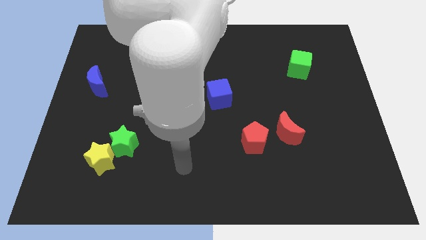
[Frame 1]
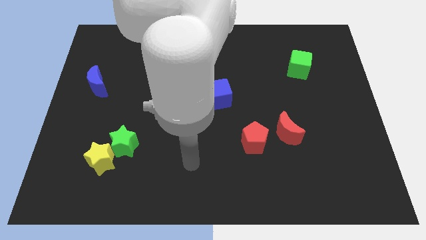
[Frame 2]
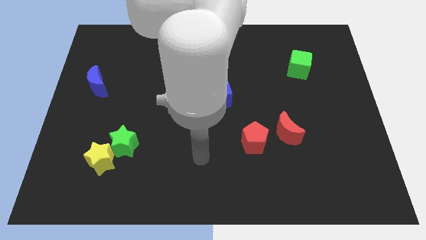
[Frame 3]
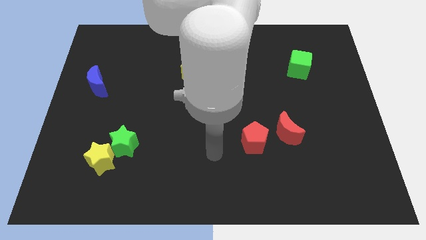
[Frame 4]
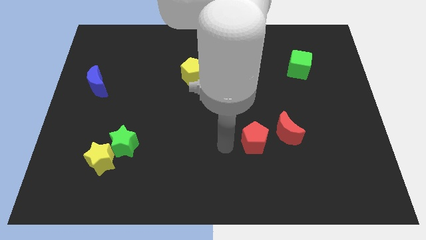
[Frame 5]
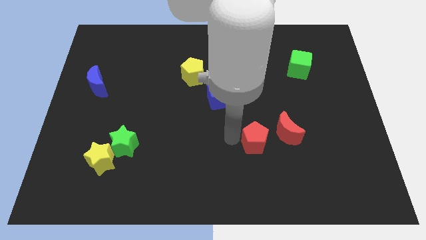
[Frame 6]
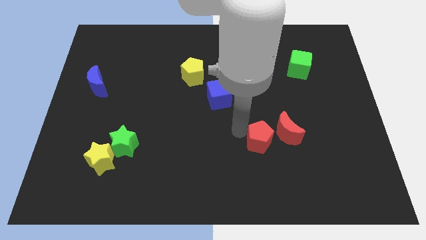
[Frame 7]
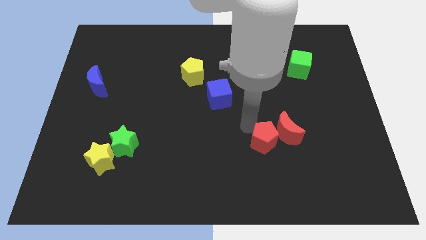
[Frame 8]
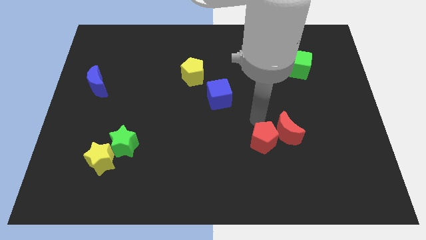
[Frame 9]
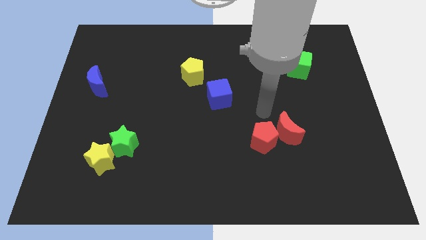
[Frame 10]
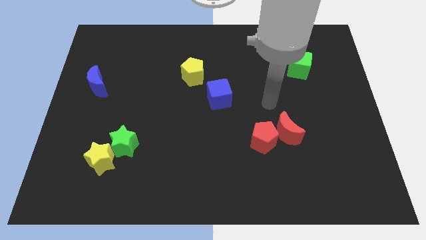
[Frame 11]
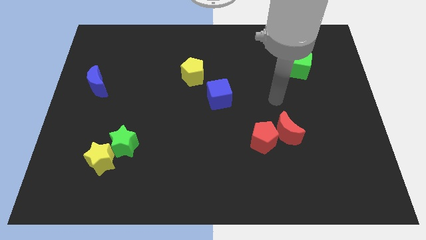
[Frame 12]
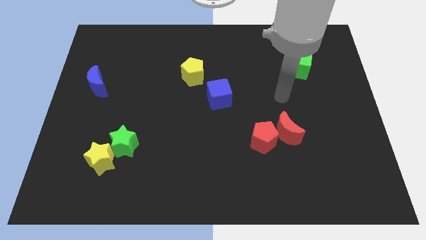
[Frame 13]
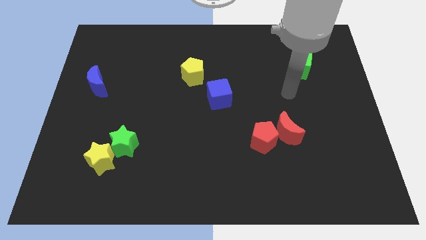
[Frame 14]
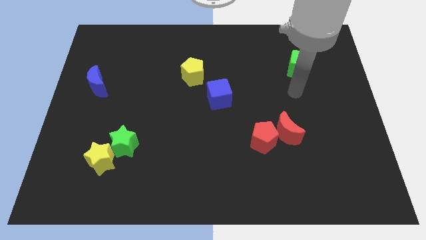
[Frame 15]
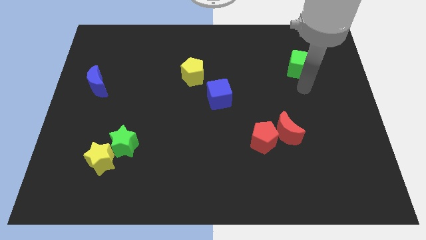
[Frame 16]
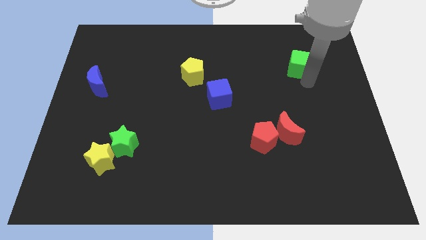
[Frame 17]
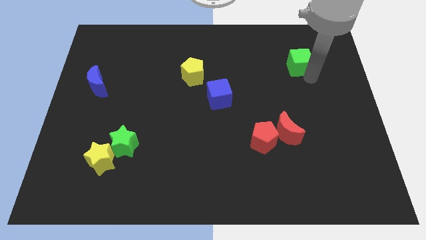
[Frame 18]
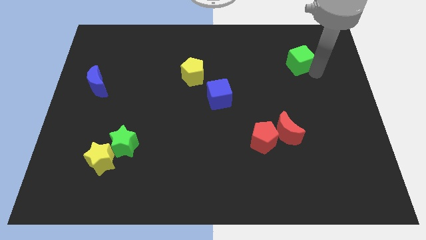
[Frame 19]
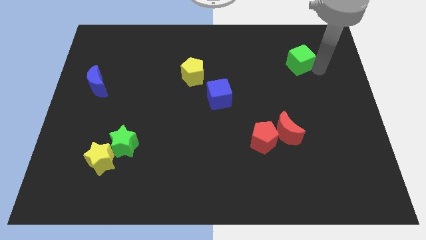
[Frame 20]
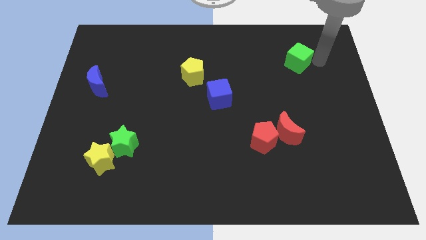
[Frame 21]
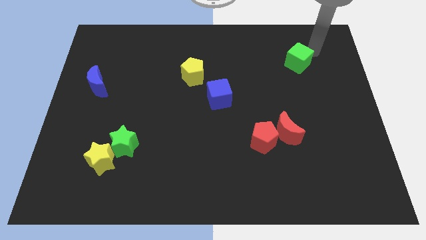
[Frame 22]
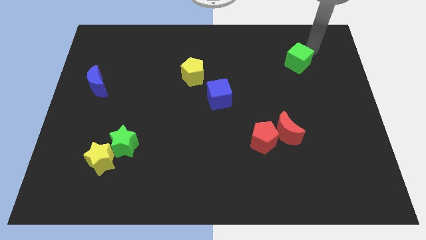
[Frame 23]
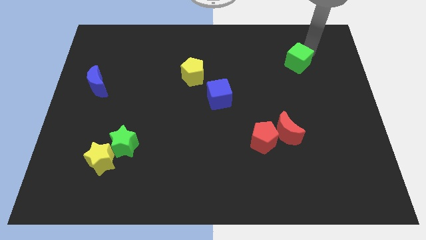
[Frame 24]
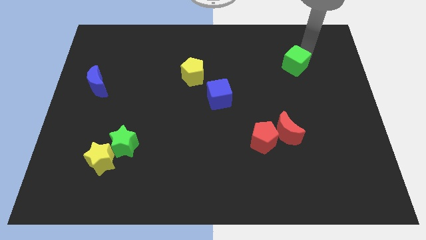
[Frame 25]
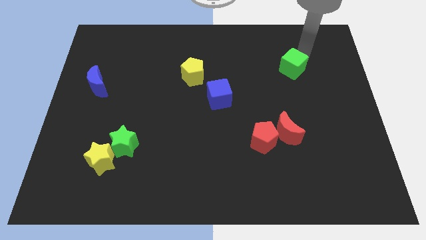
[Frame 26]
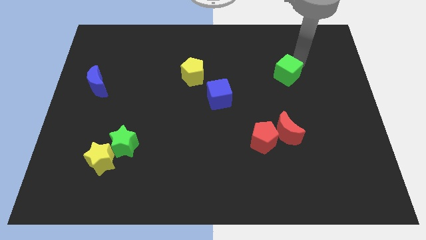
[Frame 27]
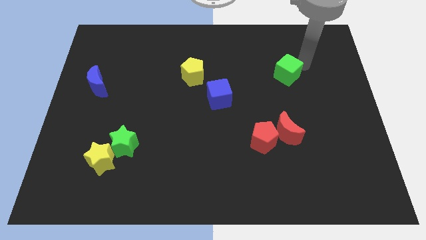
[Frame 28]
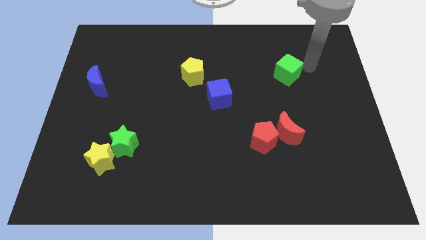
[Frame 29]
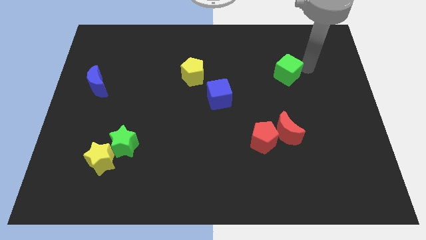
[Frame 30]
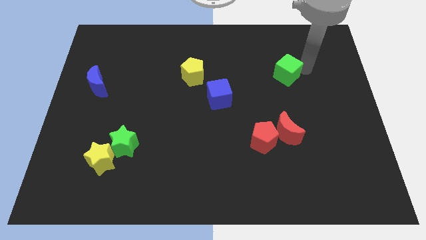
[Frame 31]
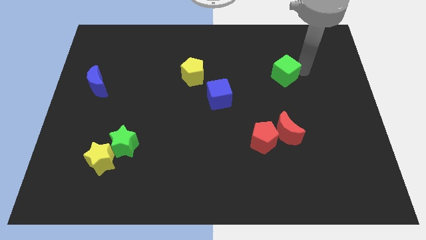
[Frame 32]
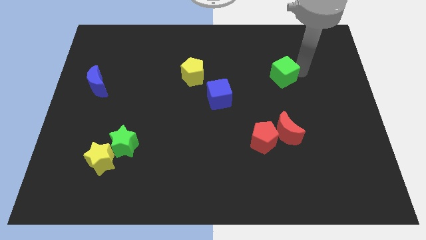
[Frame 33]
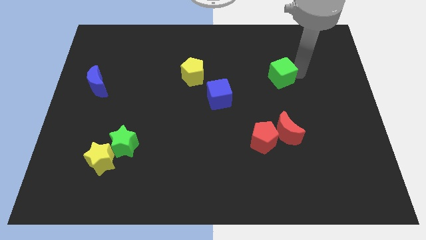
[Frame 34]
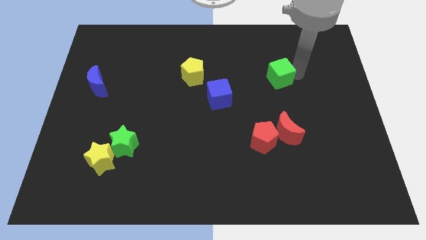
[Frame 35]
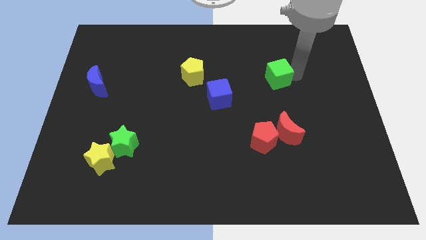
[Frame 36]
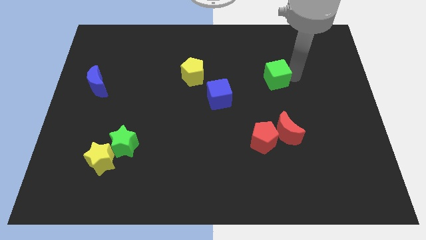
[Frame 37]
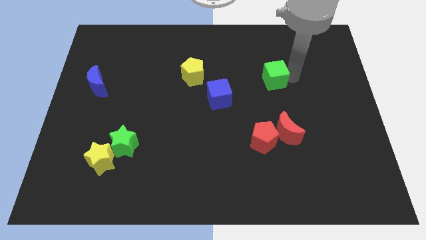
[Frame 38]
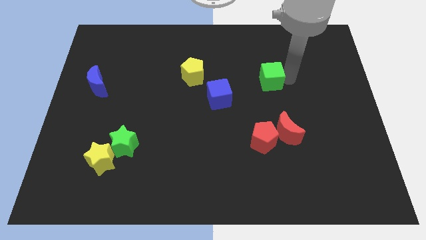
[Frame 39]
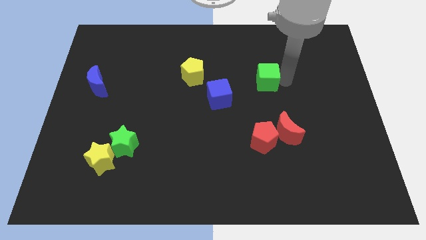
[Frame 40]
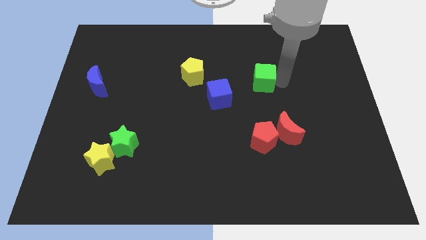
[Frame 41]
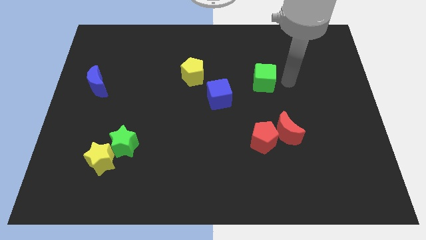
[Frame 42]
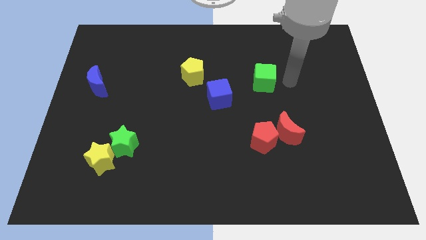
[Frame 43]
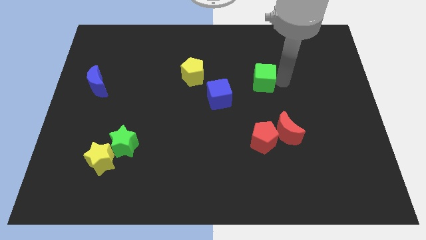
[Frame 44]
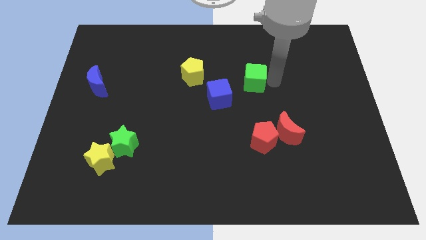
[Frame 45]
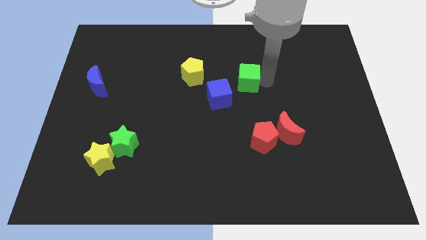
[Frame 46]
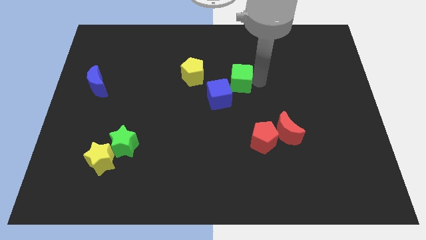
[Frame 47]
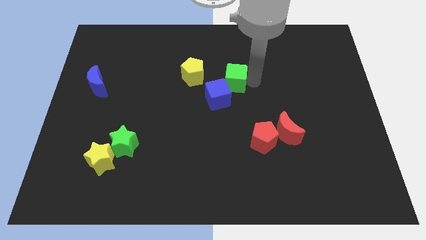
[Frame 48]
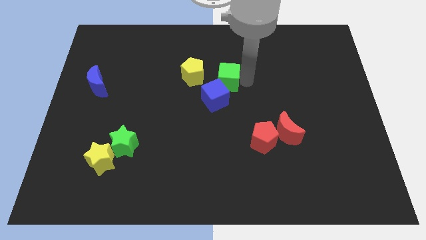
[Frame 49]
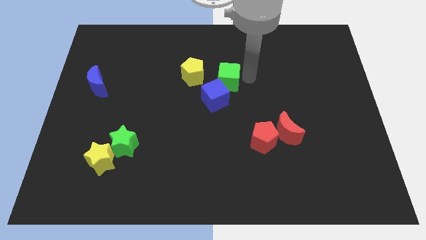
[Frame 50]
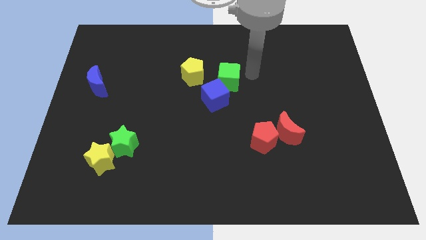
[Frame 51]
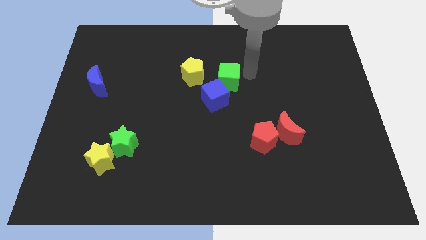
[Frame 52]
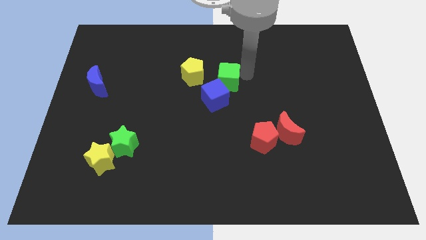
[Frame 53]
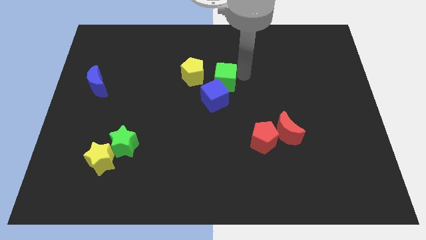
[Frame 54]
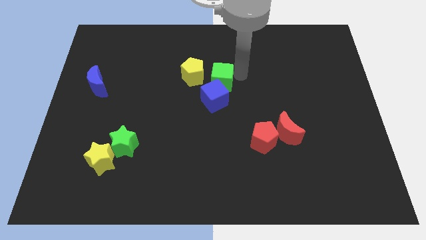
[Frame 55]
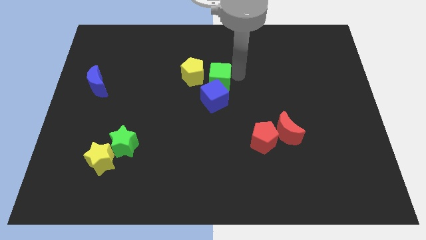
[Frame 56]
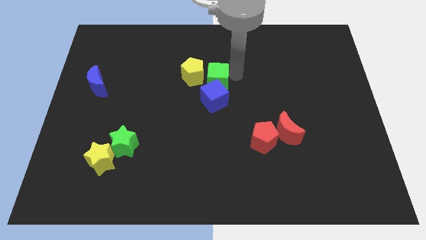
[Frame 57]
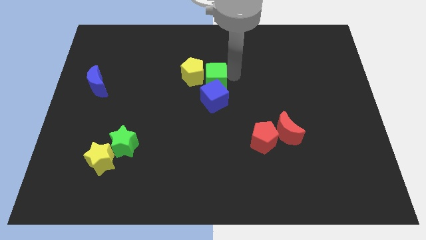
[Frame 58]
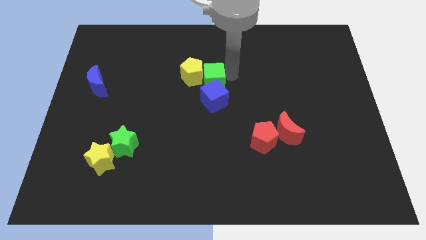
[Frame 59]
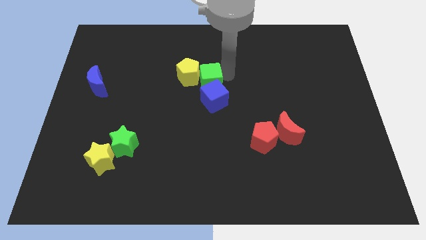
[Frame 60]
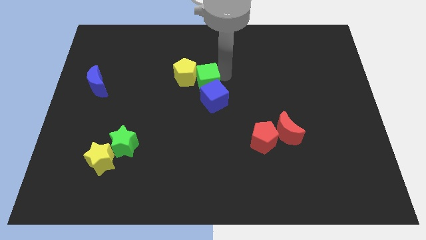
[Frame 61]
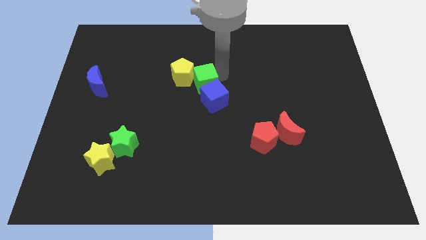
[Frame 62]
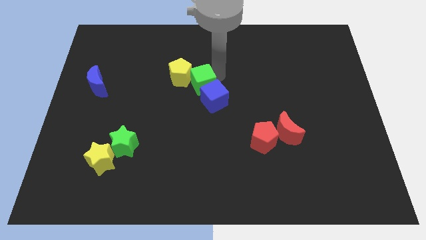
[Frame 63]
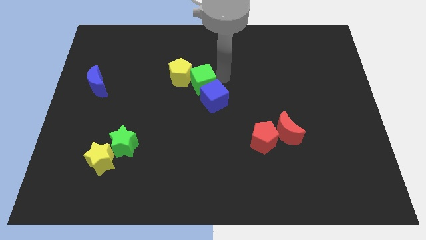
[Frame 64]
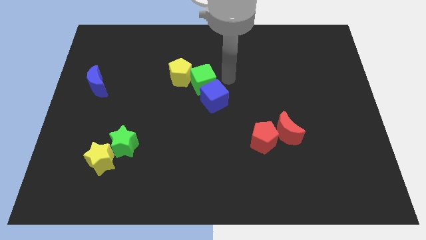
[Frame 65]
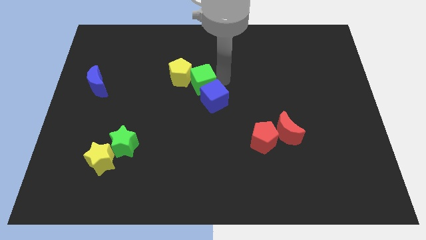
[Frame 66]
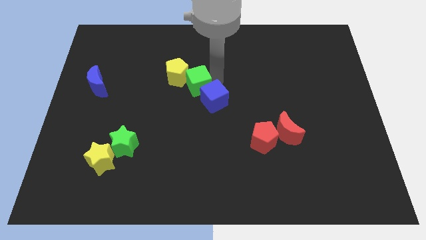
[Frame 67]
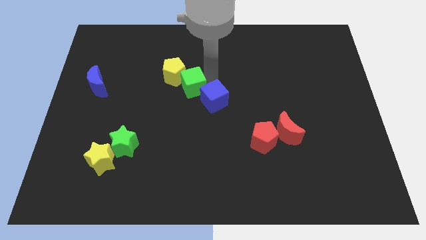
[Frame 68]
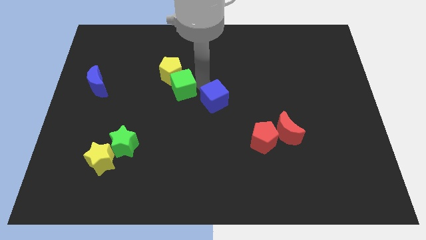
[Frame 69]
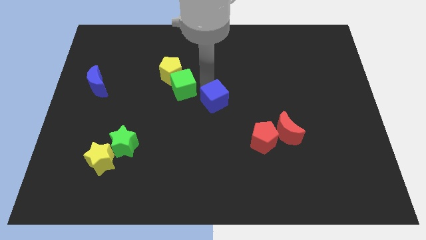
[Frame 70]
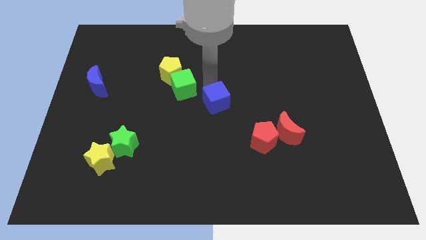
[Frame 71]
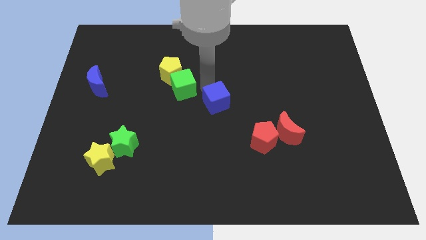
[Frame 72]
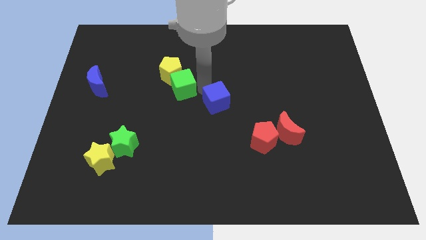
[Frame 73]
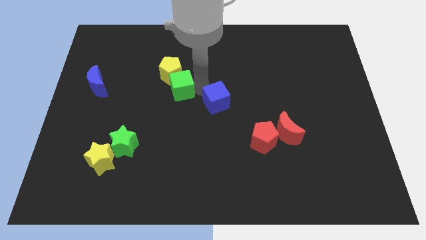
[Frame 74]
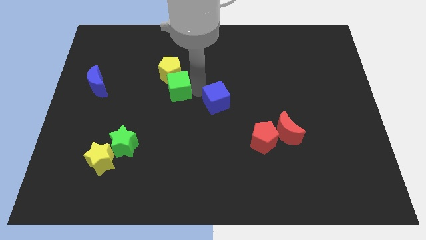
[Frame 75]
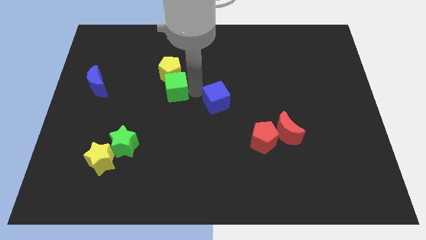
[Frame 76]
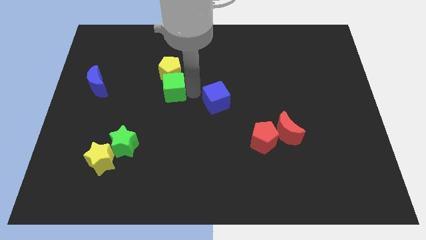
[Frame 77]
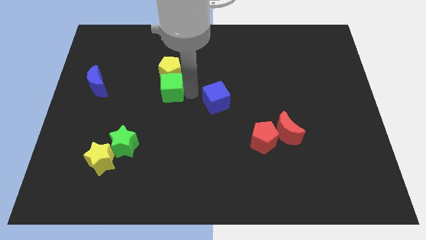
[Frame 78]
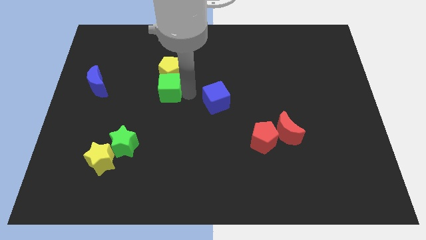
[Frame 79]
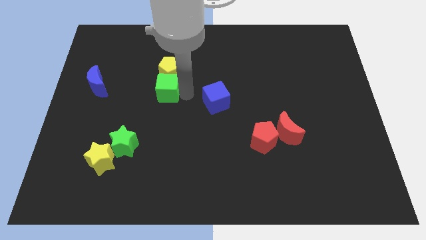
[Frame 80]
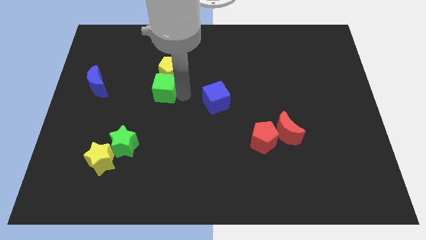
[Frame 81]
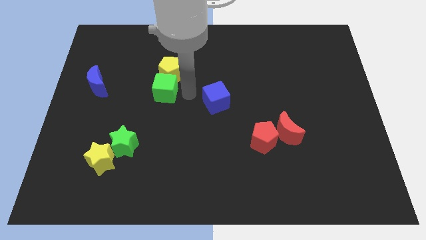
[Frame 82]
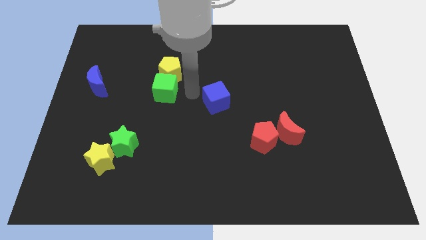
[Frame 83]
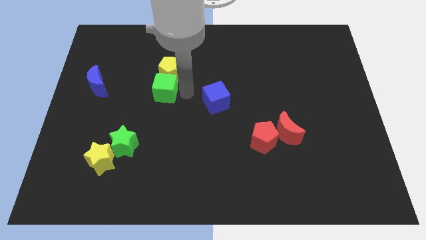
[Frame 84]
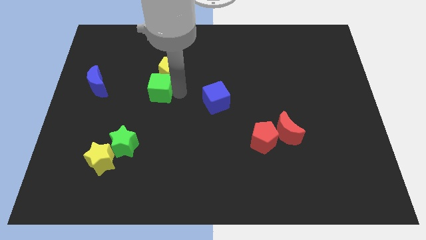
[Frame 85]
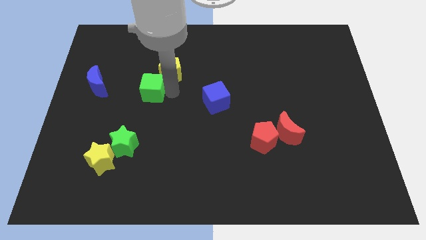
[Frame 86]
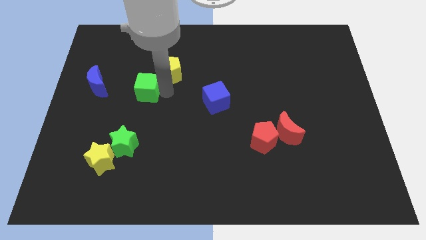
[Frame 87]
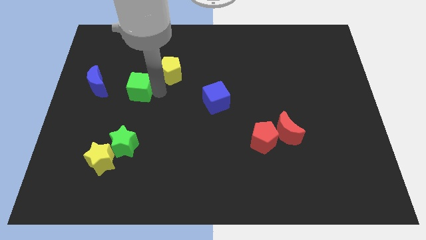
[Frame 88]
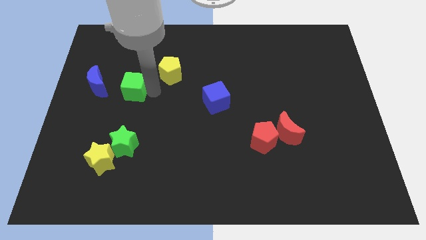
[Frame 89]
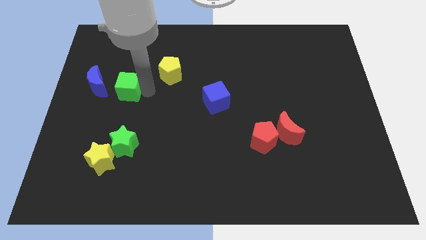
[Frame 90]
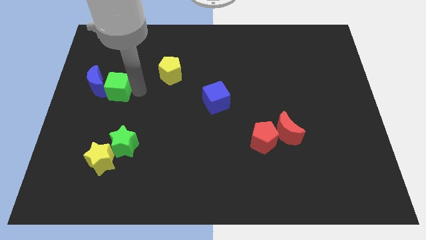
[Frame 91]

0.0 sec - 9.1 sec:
push the green cube to the blue moon
